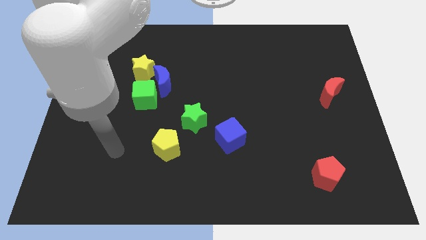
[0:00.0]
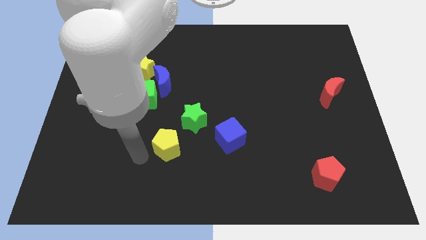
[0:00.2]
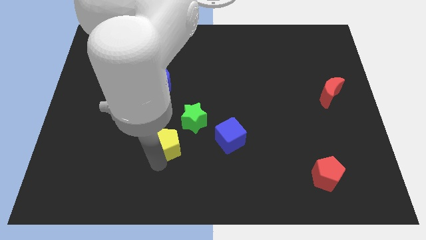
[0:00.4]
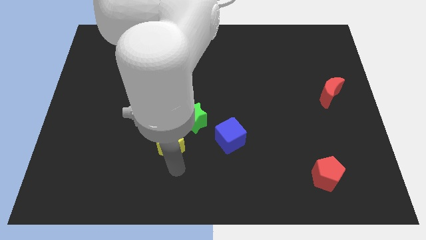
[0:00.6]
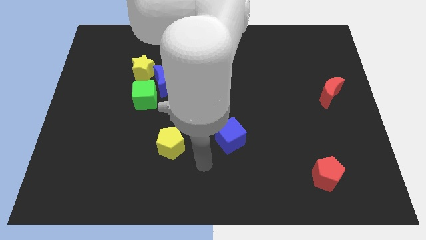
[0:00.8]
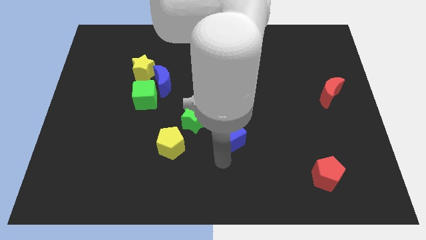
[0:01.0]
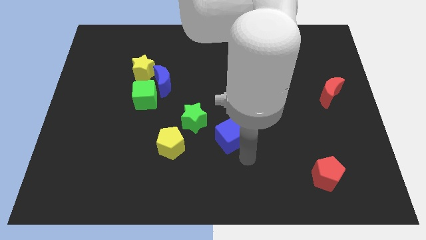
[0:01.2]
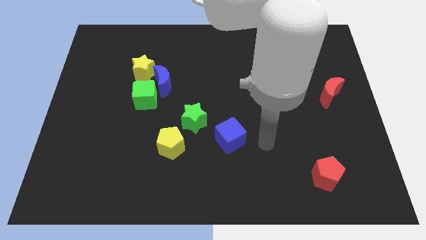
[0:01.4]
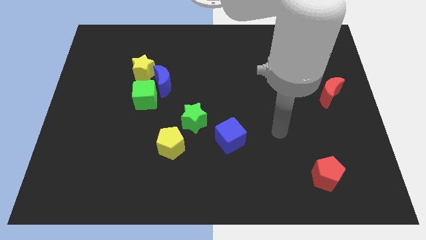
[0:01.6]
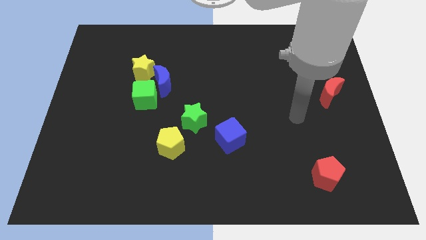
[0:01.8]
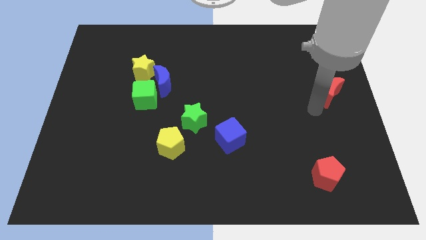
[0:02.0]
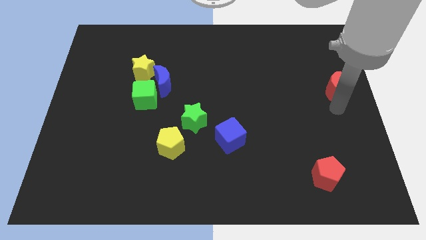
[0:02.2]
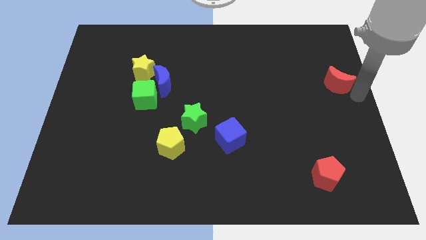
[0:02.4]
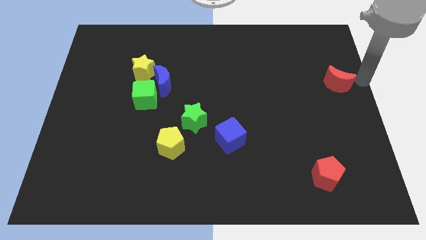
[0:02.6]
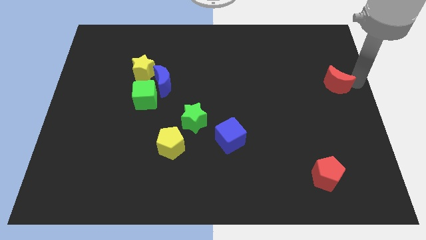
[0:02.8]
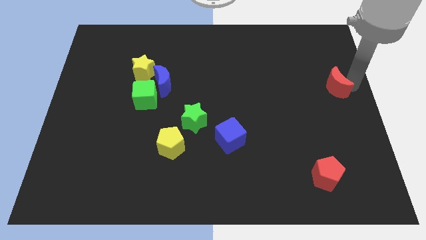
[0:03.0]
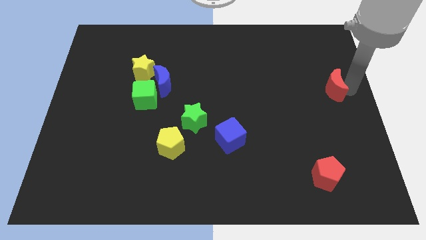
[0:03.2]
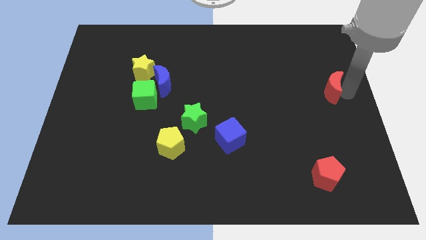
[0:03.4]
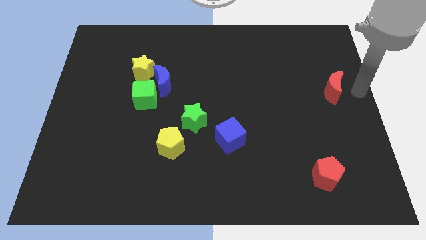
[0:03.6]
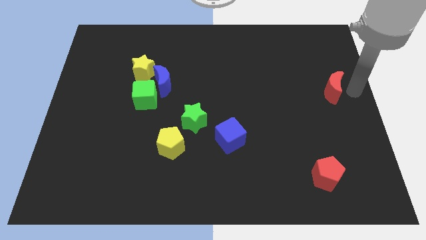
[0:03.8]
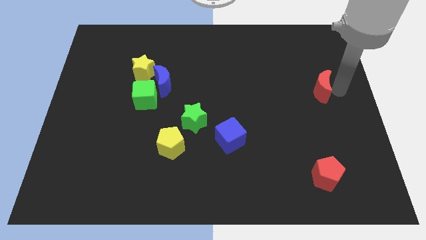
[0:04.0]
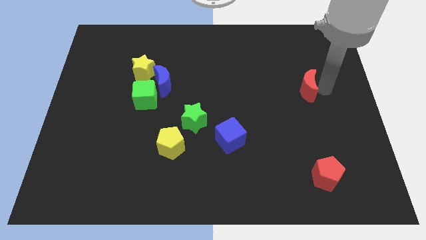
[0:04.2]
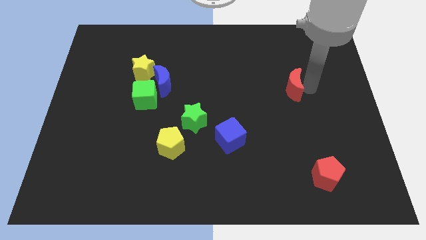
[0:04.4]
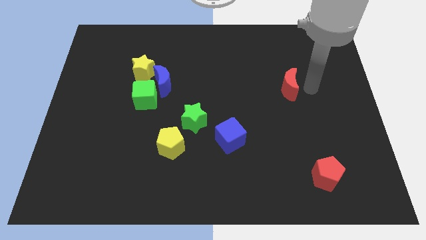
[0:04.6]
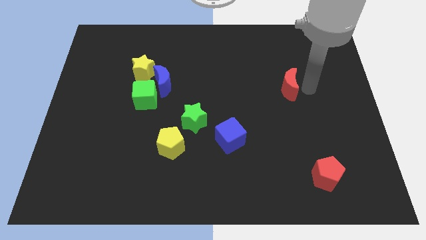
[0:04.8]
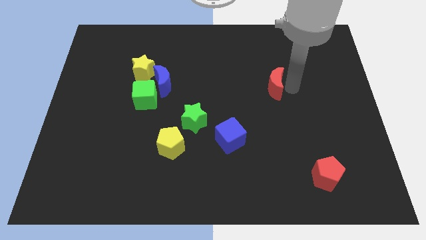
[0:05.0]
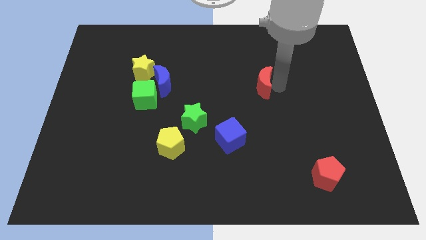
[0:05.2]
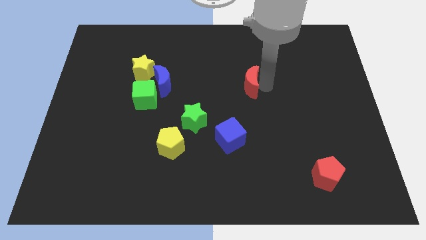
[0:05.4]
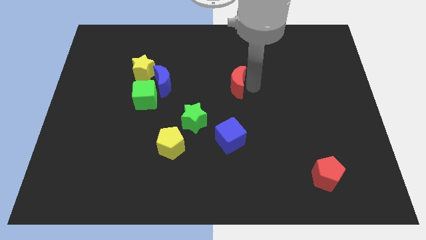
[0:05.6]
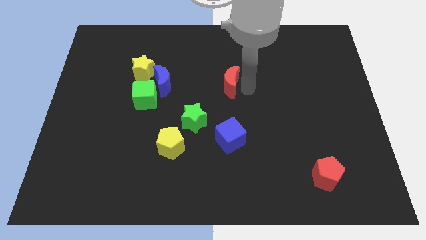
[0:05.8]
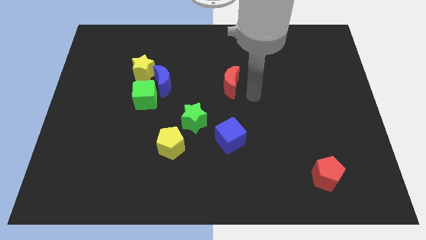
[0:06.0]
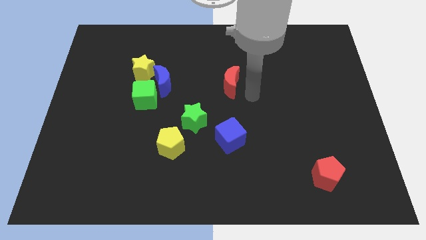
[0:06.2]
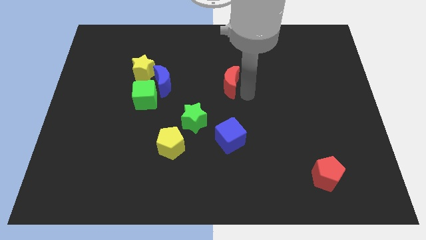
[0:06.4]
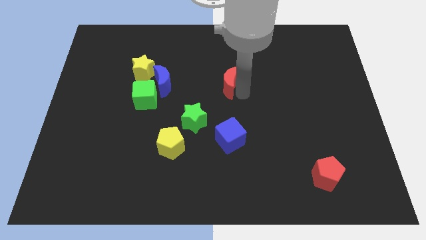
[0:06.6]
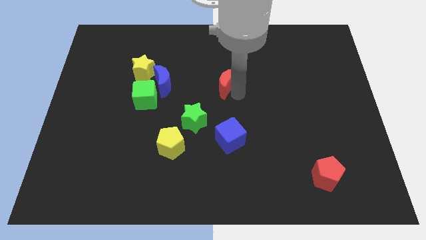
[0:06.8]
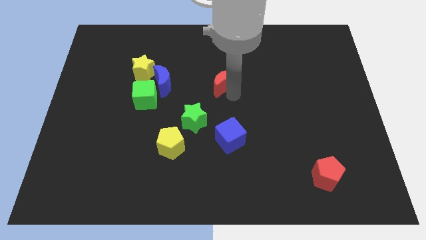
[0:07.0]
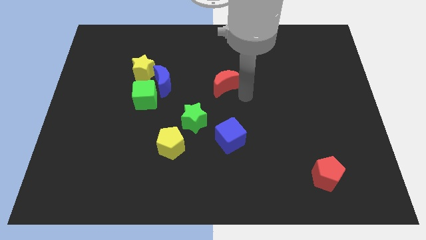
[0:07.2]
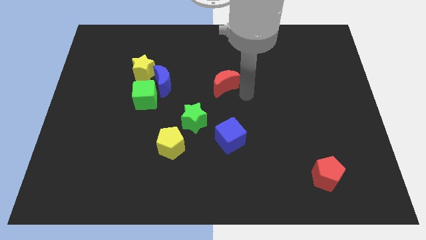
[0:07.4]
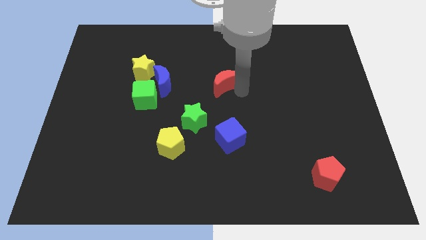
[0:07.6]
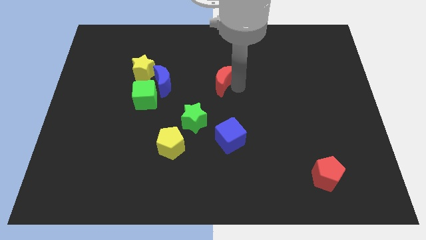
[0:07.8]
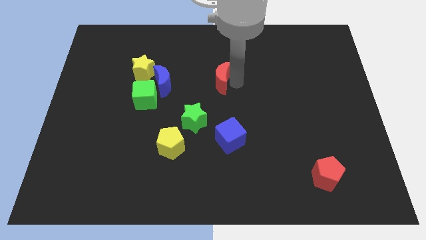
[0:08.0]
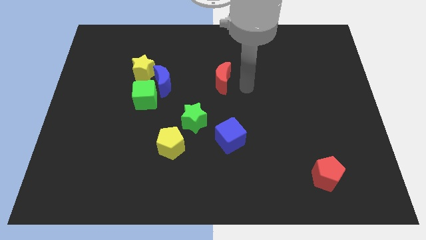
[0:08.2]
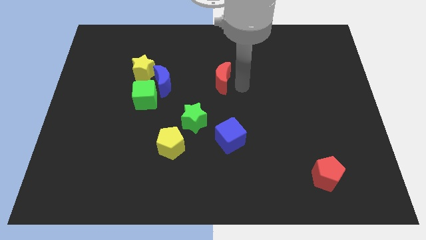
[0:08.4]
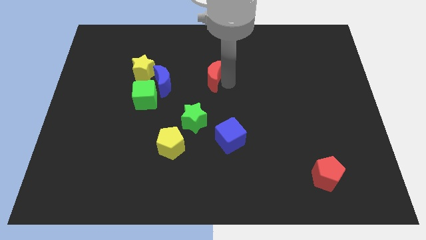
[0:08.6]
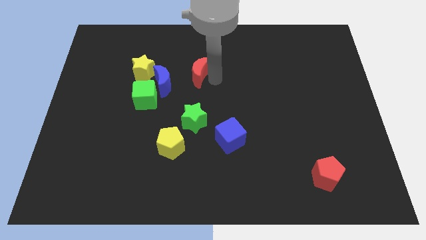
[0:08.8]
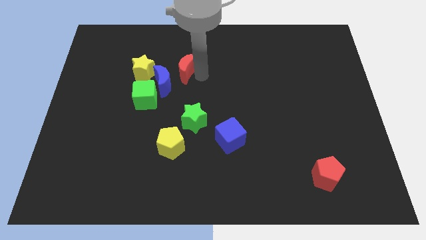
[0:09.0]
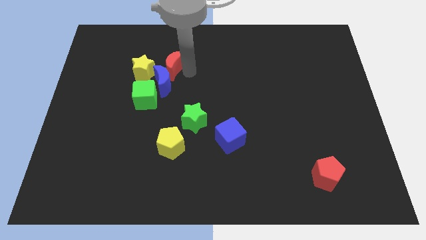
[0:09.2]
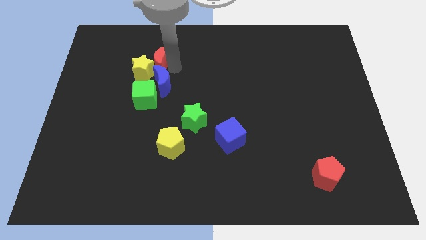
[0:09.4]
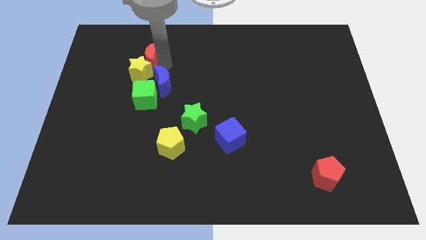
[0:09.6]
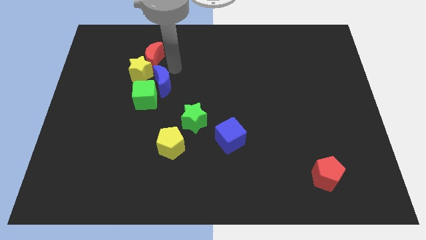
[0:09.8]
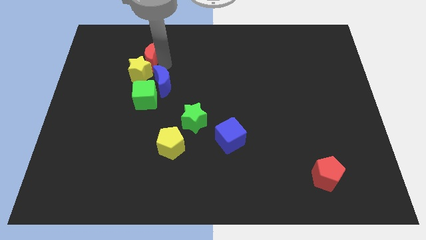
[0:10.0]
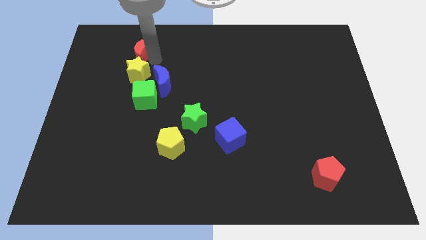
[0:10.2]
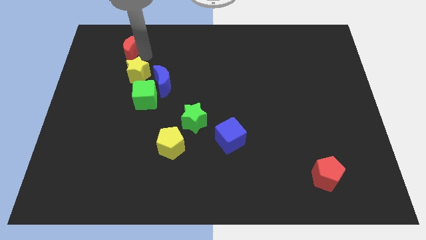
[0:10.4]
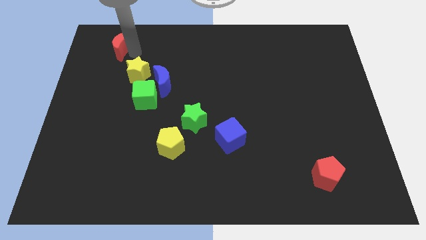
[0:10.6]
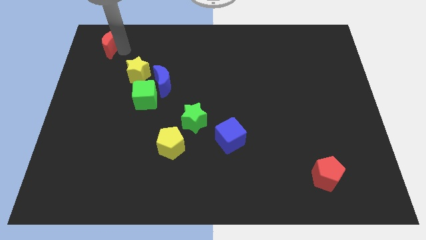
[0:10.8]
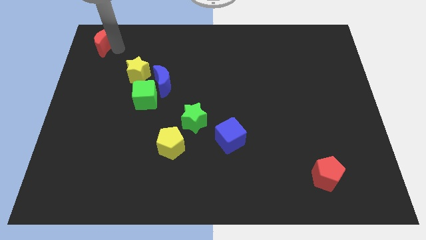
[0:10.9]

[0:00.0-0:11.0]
slide the red moon to the upper left corner
